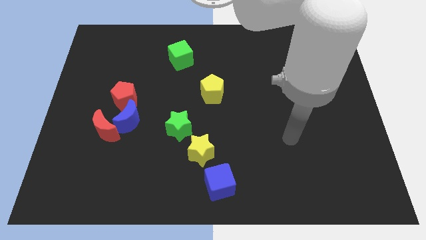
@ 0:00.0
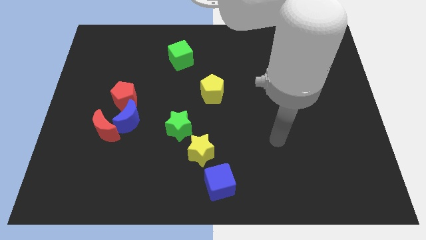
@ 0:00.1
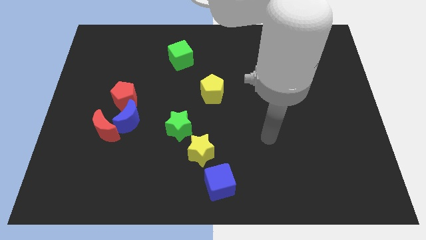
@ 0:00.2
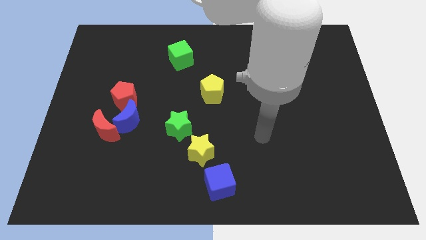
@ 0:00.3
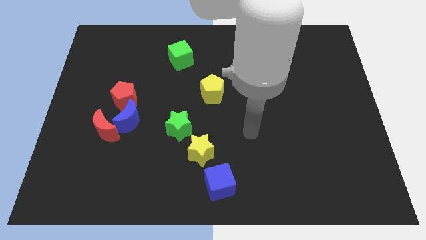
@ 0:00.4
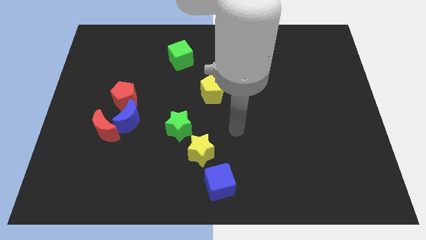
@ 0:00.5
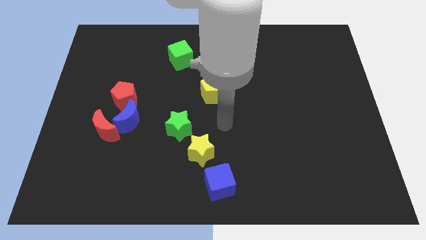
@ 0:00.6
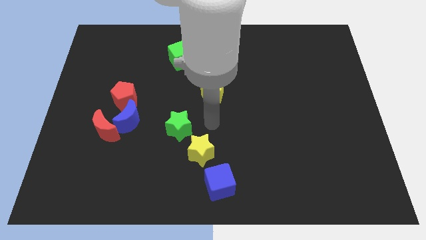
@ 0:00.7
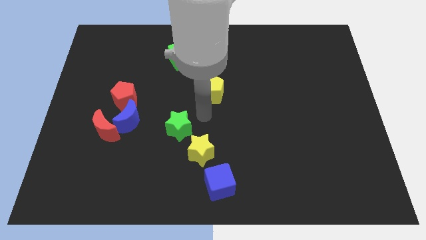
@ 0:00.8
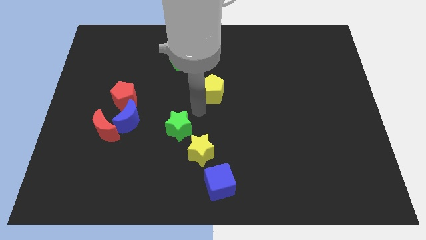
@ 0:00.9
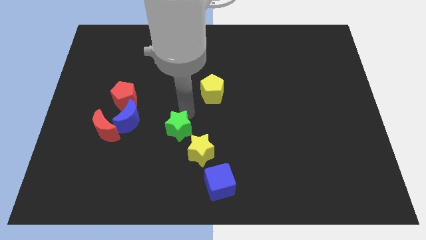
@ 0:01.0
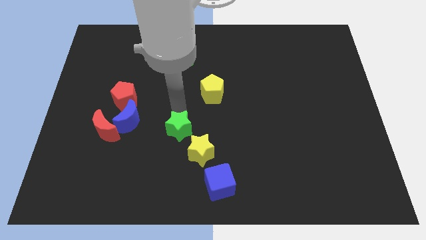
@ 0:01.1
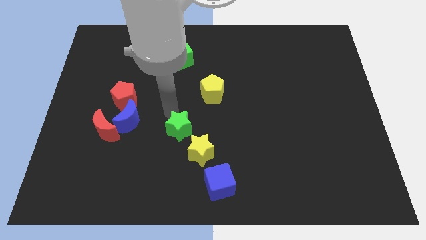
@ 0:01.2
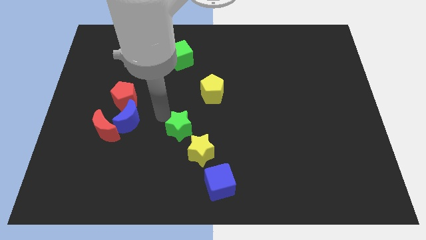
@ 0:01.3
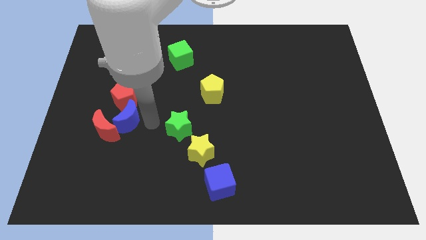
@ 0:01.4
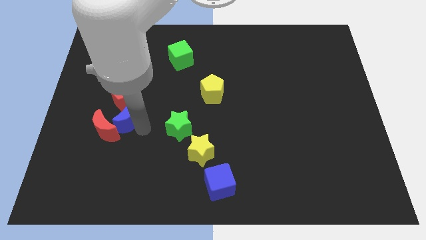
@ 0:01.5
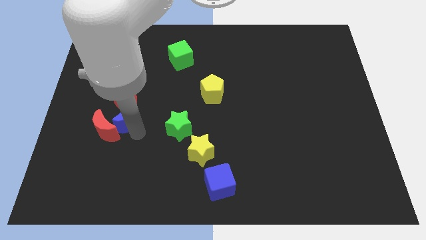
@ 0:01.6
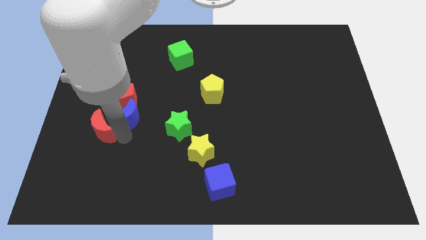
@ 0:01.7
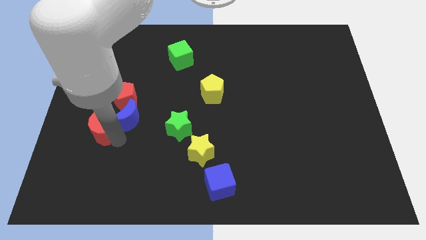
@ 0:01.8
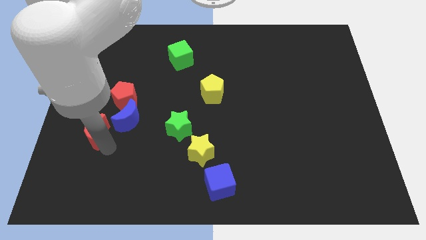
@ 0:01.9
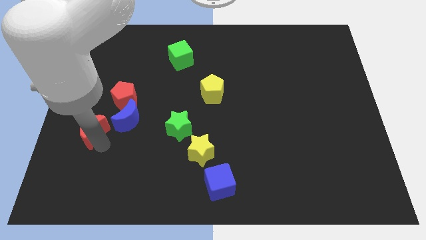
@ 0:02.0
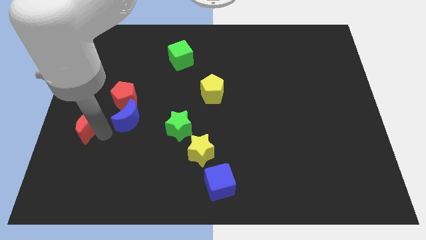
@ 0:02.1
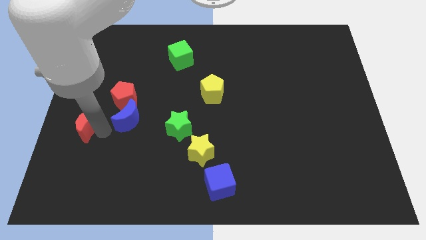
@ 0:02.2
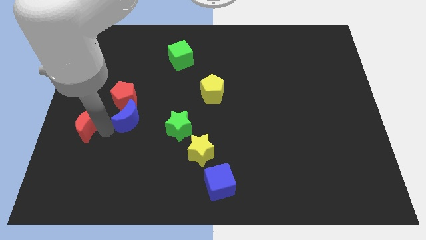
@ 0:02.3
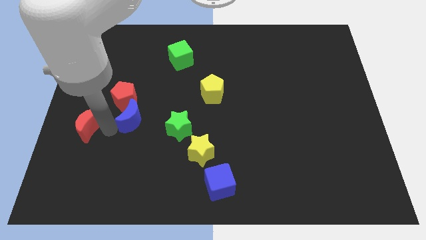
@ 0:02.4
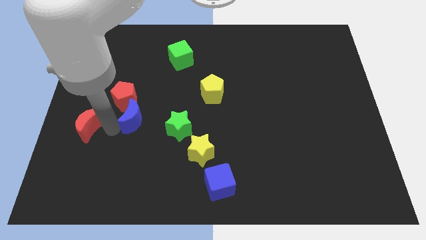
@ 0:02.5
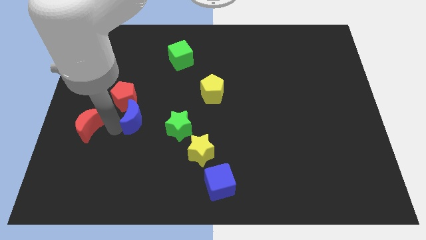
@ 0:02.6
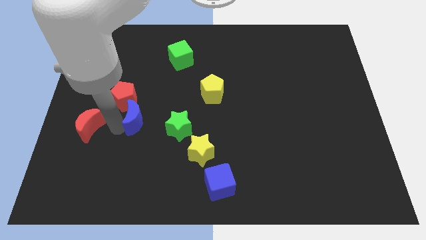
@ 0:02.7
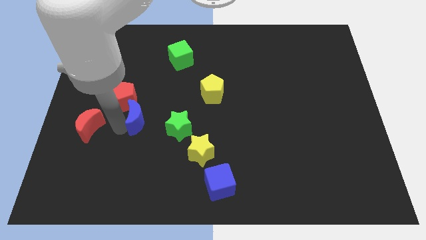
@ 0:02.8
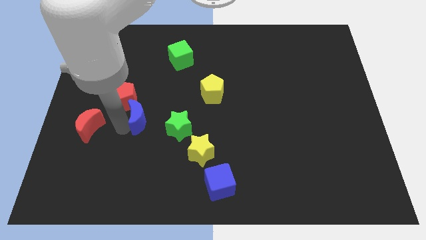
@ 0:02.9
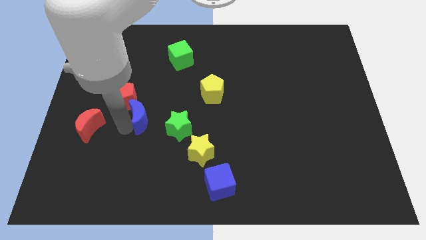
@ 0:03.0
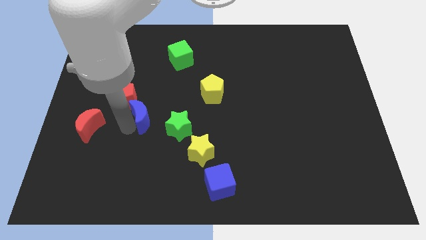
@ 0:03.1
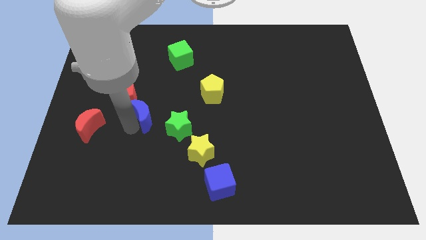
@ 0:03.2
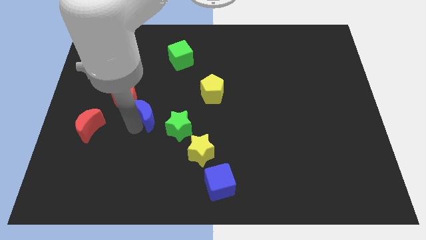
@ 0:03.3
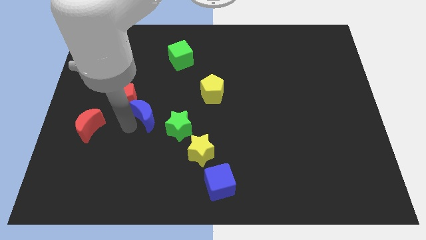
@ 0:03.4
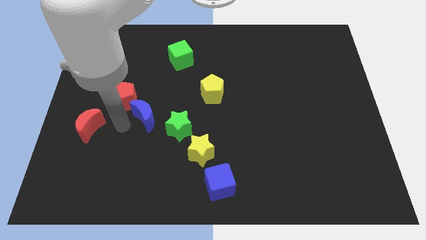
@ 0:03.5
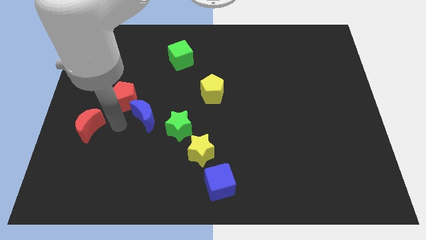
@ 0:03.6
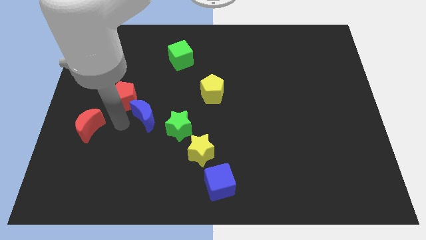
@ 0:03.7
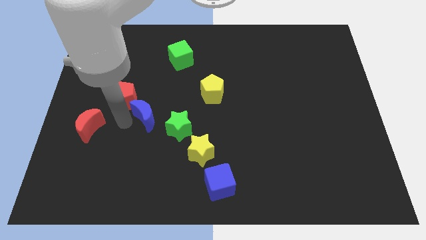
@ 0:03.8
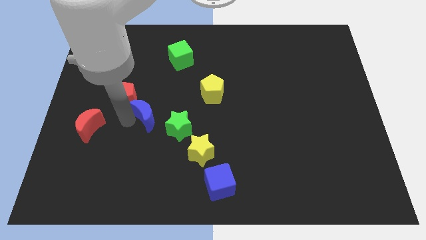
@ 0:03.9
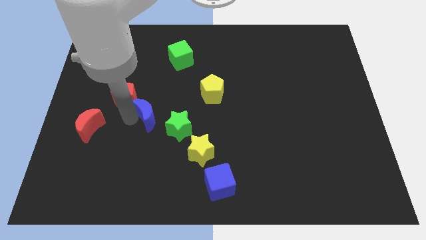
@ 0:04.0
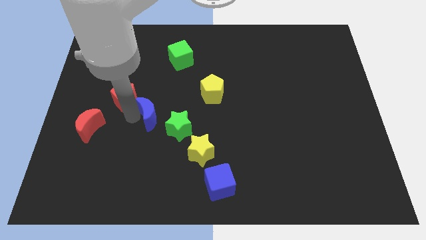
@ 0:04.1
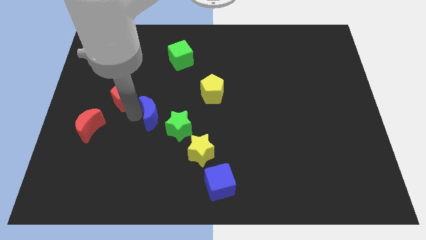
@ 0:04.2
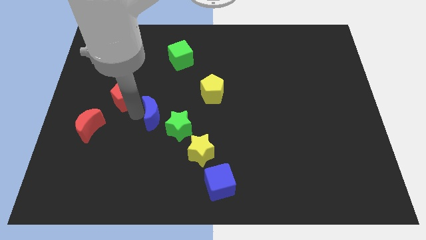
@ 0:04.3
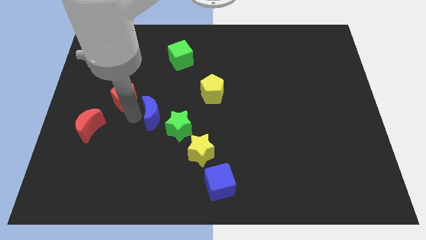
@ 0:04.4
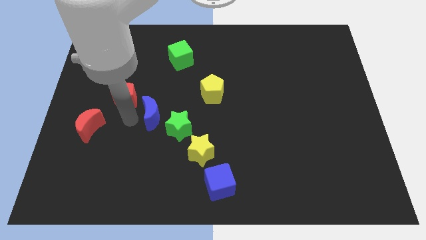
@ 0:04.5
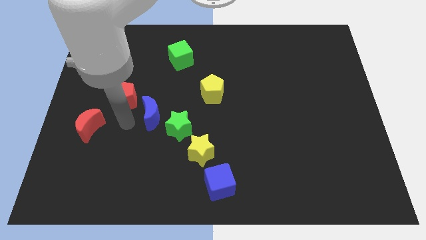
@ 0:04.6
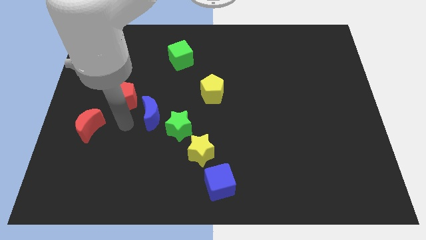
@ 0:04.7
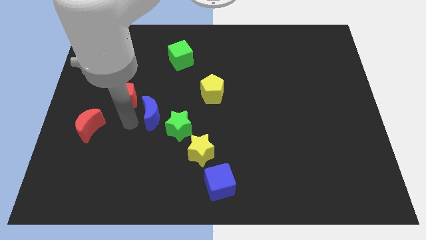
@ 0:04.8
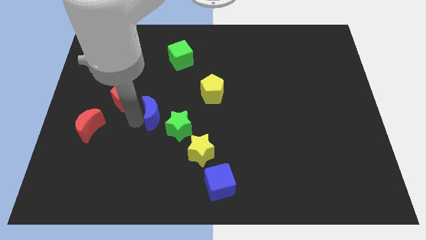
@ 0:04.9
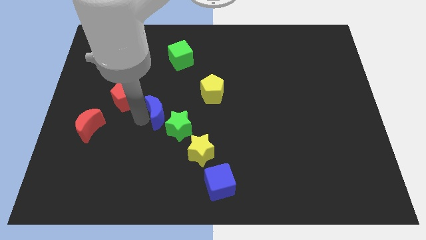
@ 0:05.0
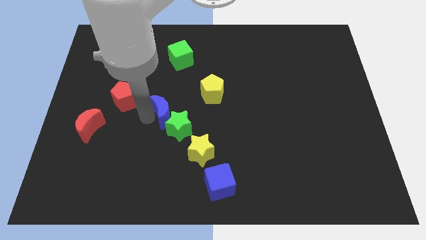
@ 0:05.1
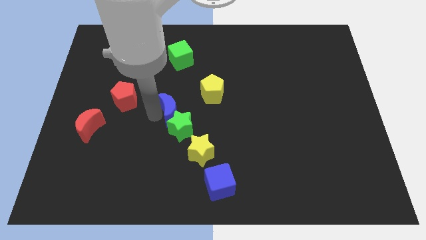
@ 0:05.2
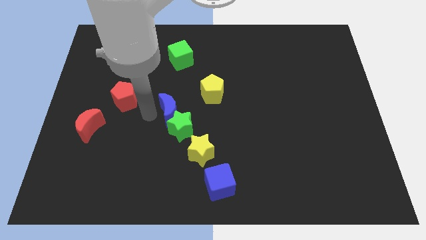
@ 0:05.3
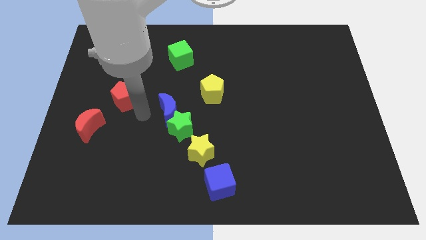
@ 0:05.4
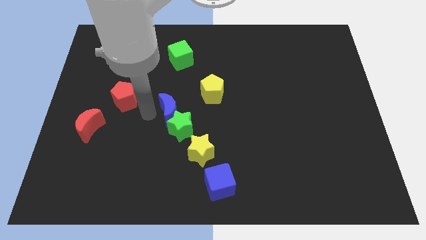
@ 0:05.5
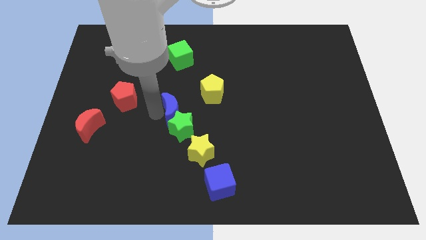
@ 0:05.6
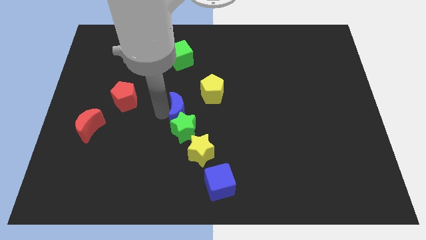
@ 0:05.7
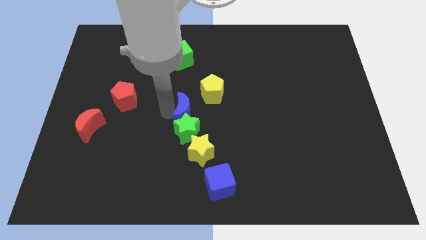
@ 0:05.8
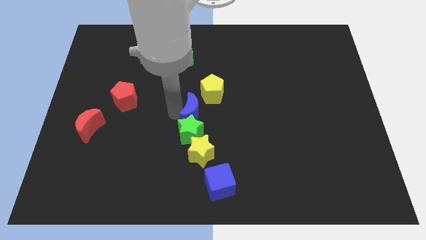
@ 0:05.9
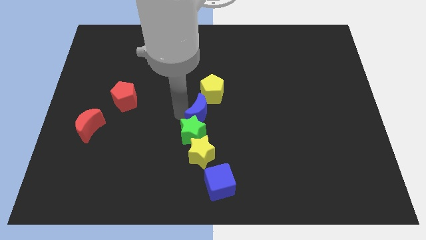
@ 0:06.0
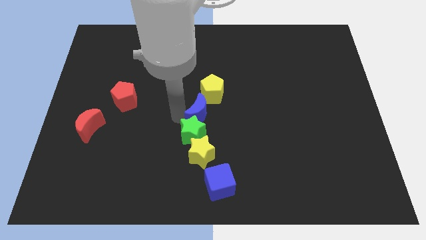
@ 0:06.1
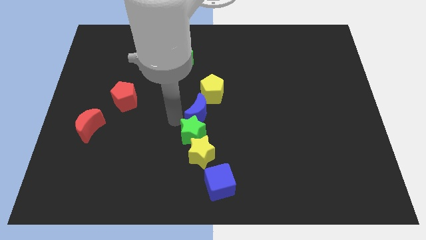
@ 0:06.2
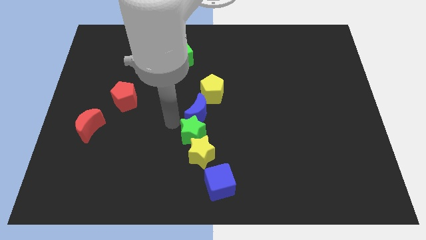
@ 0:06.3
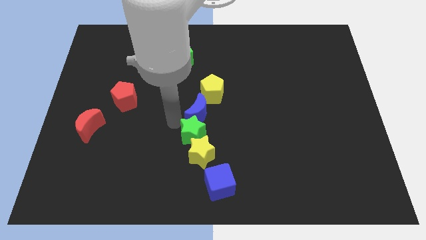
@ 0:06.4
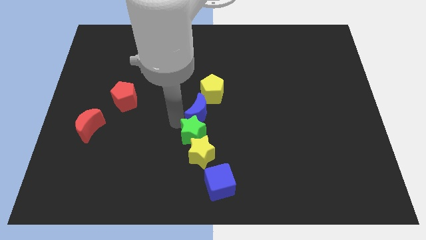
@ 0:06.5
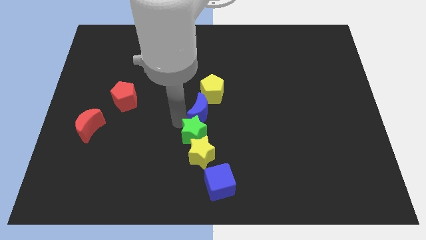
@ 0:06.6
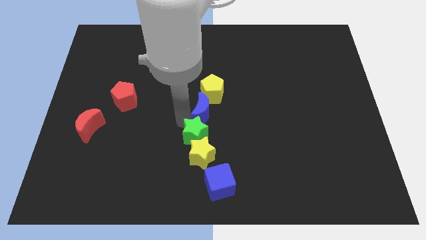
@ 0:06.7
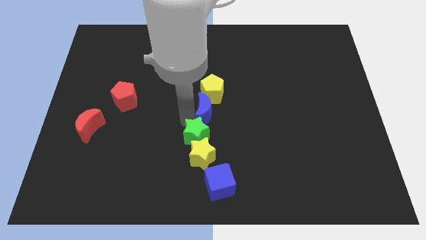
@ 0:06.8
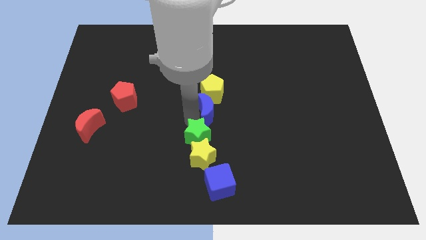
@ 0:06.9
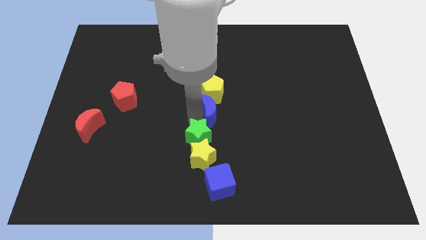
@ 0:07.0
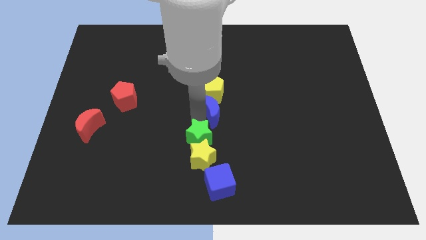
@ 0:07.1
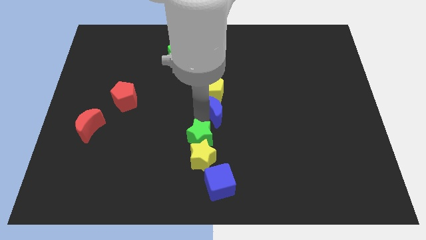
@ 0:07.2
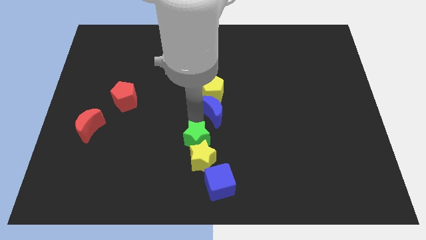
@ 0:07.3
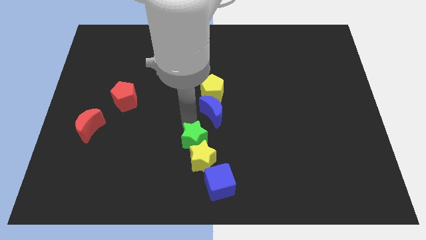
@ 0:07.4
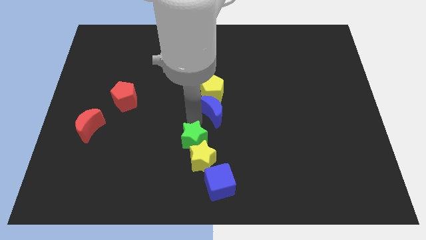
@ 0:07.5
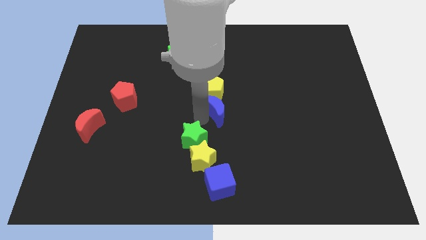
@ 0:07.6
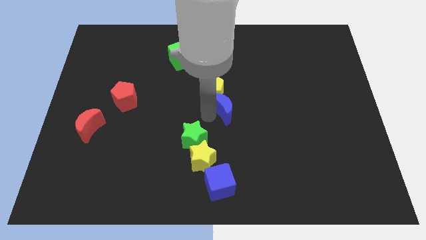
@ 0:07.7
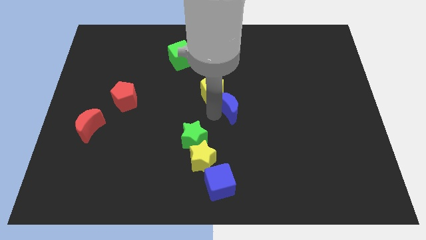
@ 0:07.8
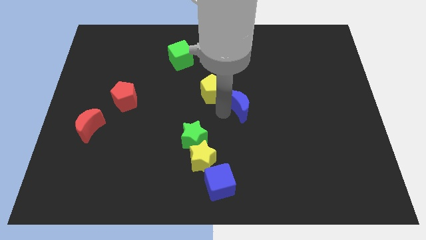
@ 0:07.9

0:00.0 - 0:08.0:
push the blue moon right of the yellow pentagon
